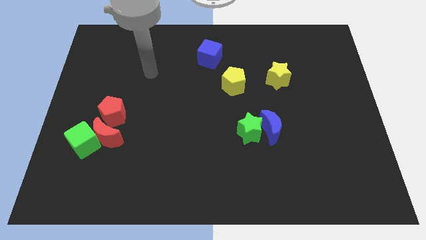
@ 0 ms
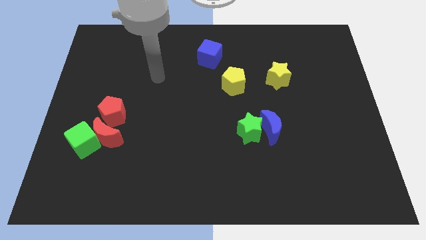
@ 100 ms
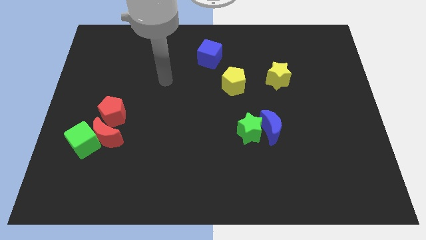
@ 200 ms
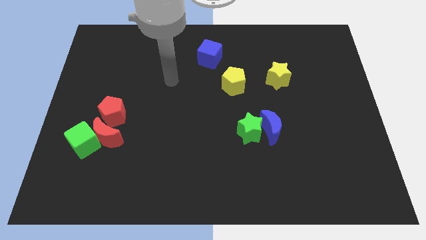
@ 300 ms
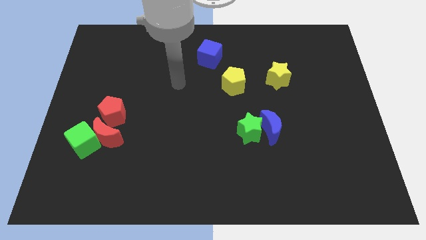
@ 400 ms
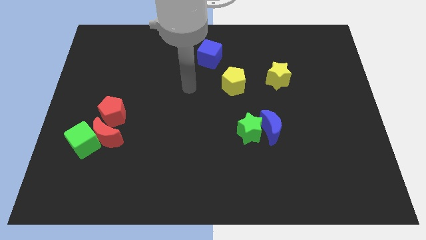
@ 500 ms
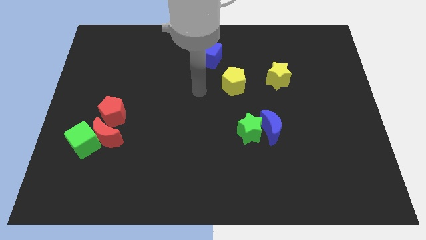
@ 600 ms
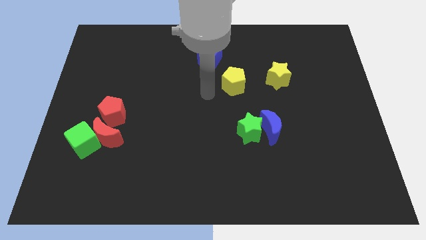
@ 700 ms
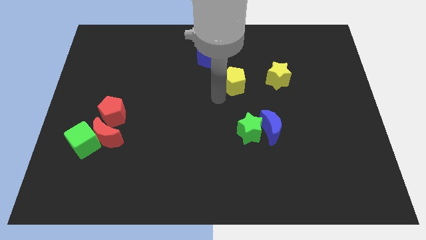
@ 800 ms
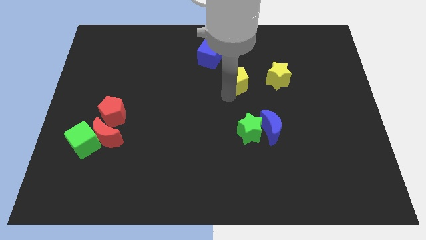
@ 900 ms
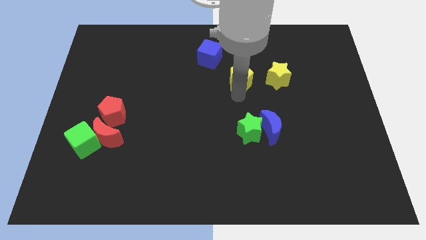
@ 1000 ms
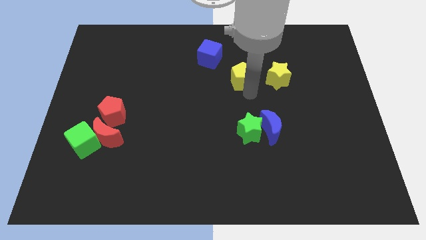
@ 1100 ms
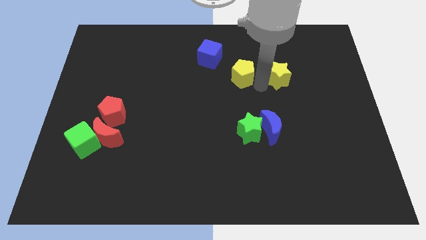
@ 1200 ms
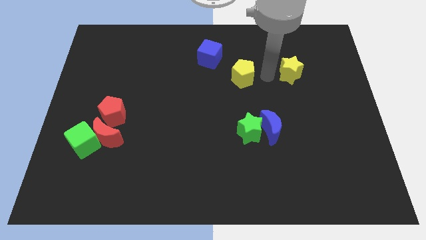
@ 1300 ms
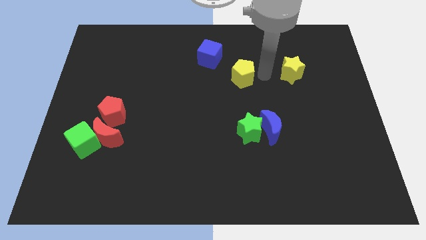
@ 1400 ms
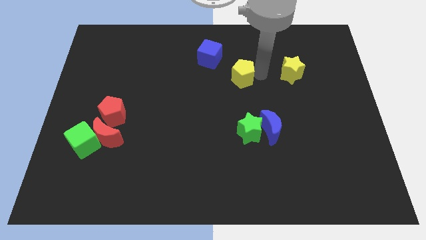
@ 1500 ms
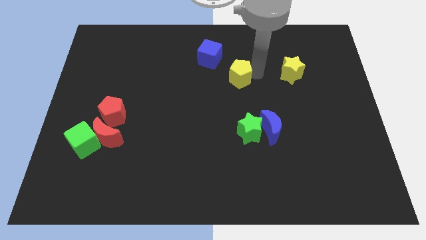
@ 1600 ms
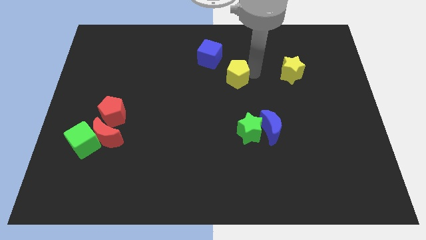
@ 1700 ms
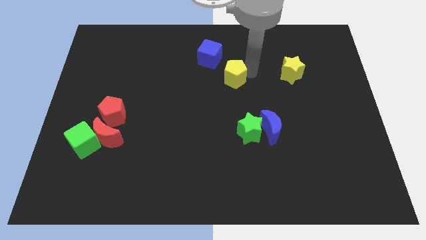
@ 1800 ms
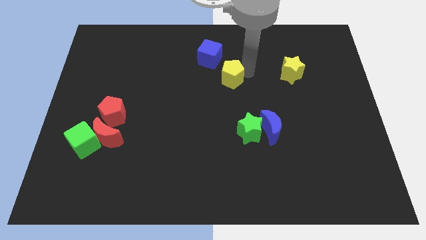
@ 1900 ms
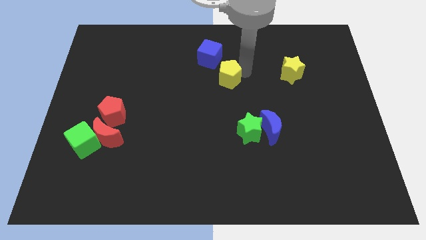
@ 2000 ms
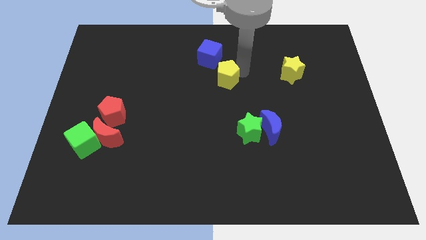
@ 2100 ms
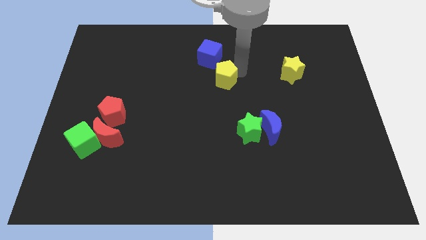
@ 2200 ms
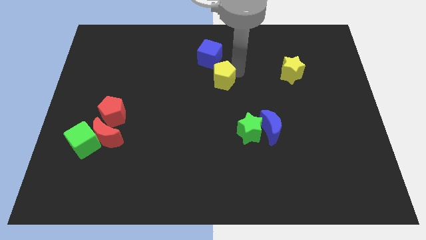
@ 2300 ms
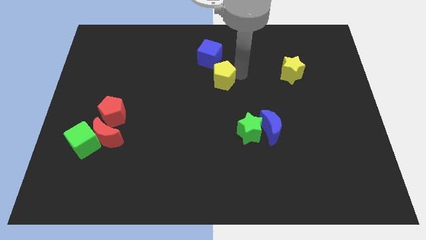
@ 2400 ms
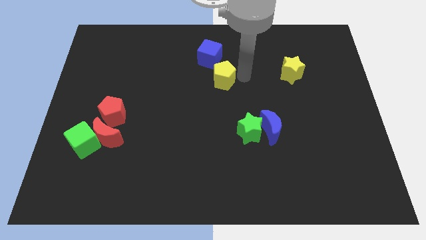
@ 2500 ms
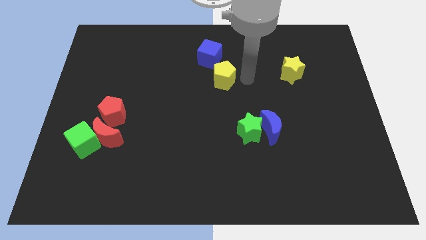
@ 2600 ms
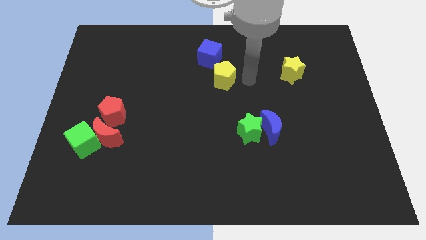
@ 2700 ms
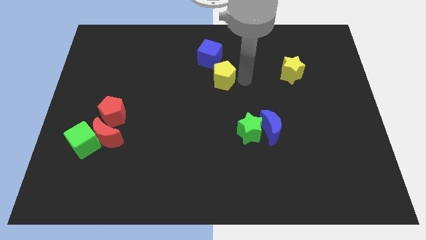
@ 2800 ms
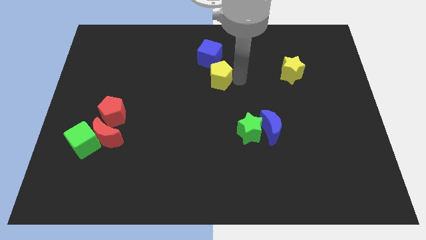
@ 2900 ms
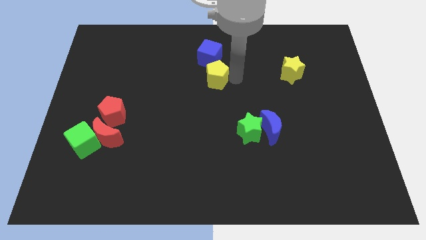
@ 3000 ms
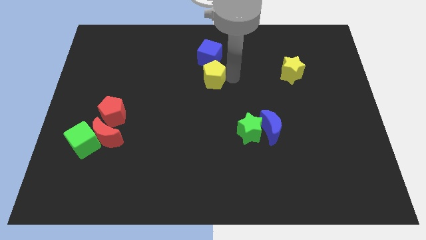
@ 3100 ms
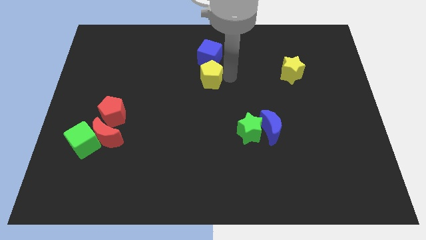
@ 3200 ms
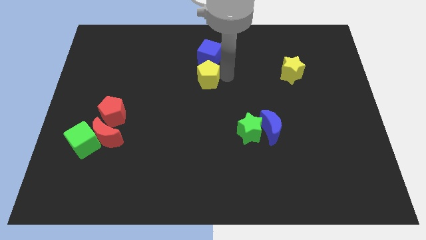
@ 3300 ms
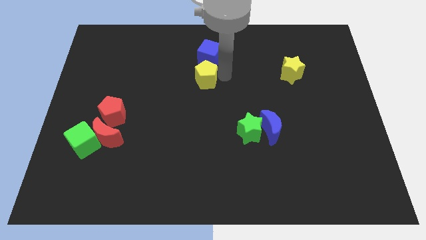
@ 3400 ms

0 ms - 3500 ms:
push the yellow pentagon to the left a bit

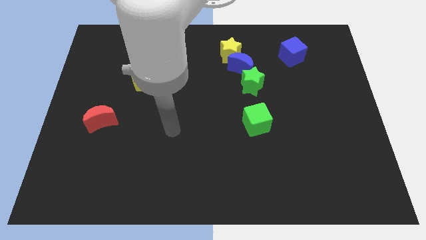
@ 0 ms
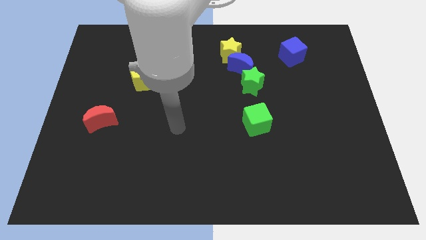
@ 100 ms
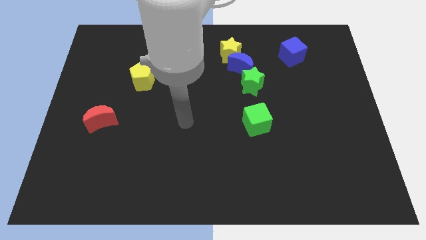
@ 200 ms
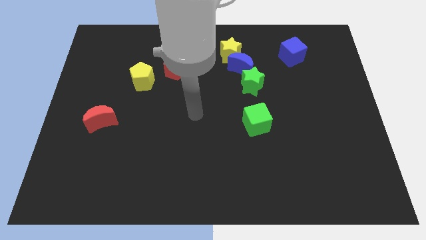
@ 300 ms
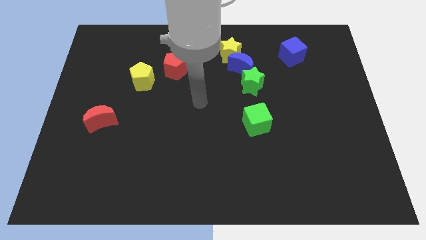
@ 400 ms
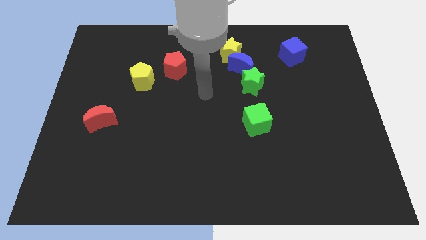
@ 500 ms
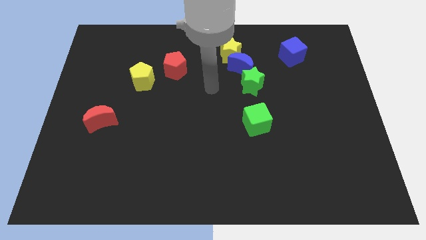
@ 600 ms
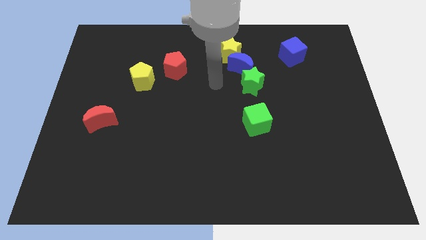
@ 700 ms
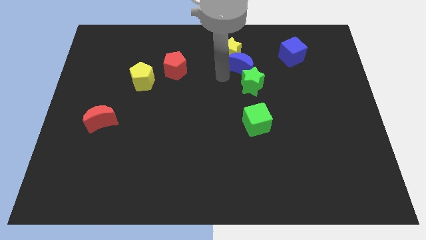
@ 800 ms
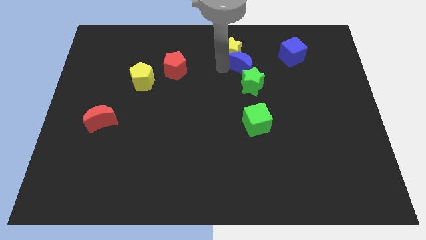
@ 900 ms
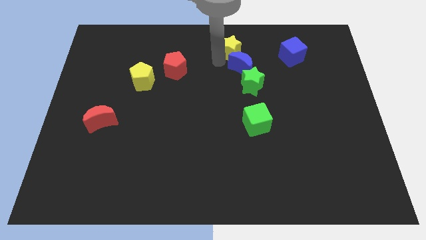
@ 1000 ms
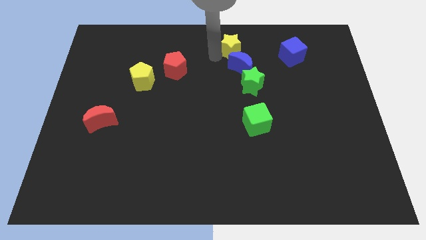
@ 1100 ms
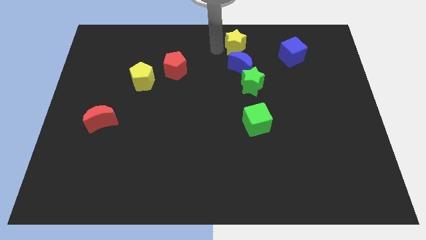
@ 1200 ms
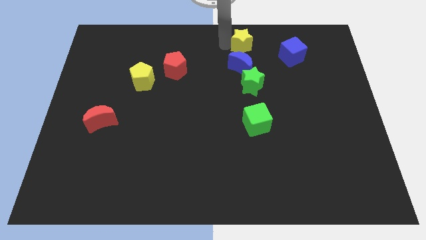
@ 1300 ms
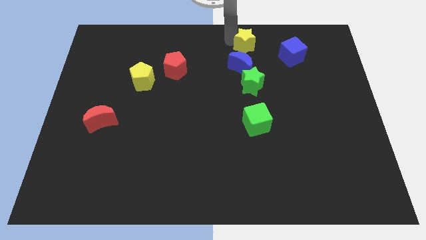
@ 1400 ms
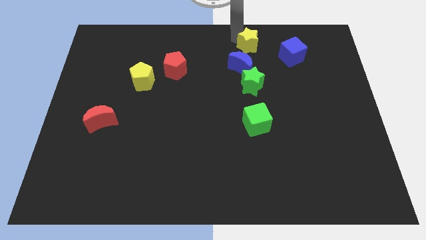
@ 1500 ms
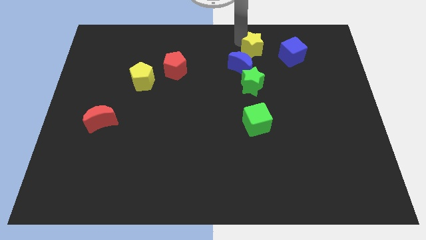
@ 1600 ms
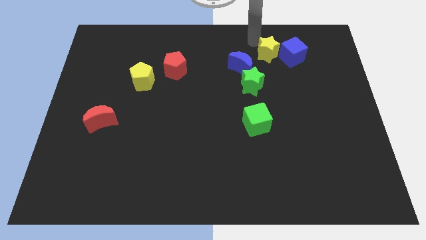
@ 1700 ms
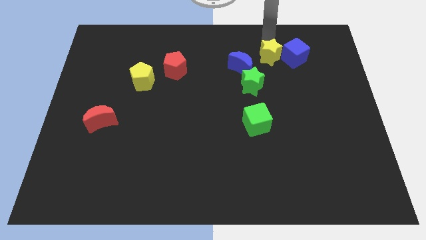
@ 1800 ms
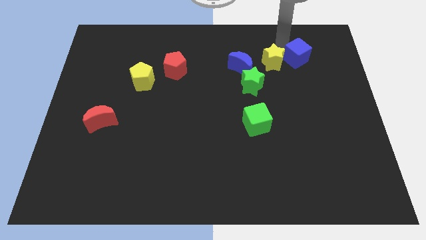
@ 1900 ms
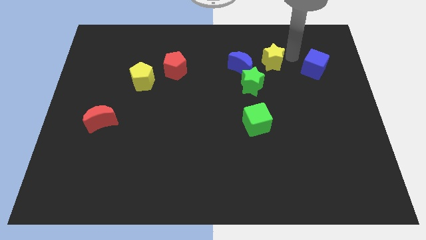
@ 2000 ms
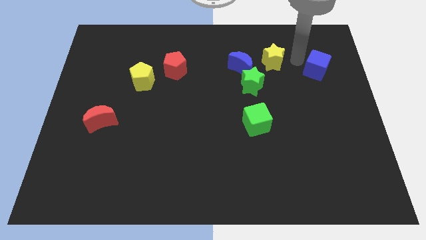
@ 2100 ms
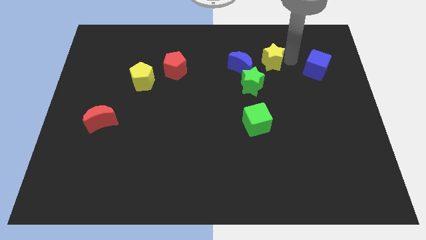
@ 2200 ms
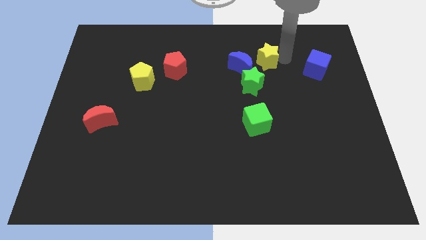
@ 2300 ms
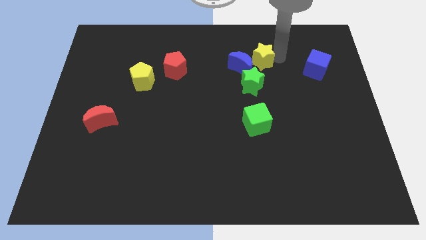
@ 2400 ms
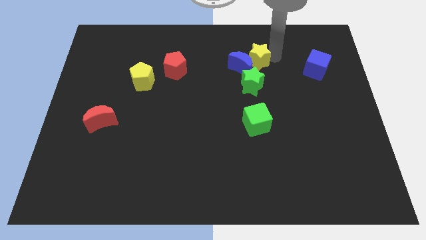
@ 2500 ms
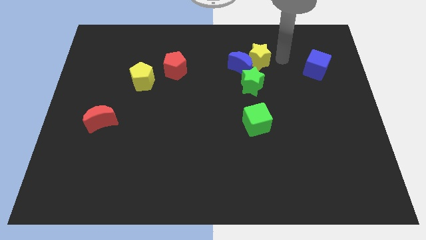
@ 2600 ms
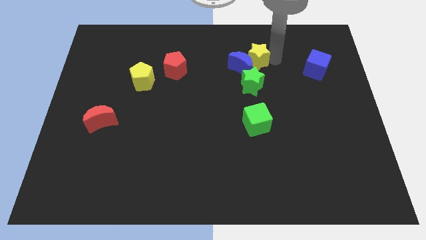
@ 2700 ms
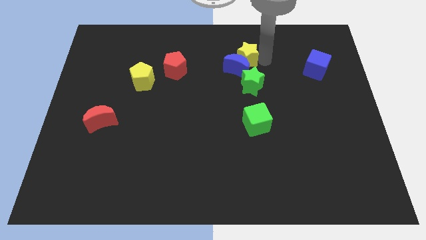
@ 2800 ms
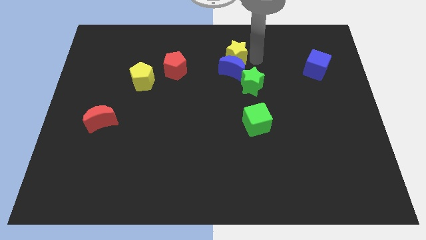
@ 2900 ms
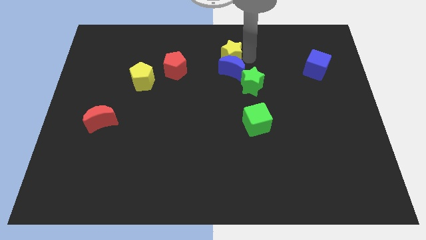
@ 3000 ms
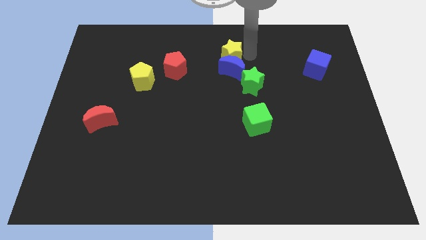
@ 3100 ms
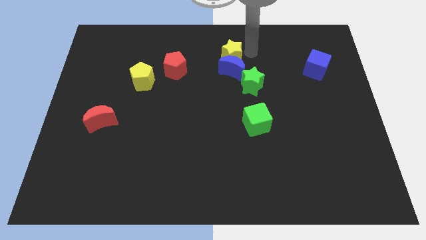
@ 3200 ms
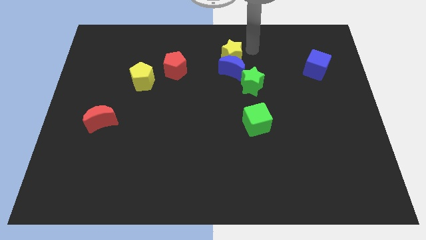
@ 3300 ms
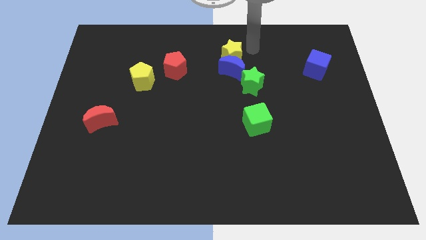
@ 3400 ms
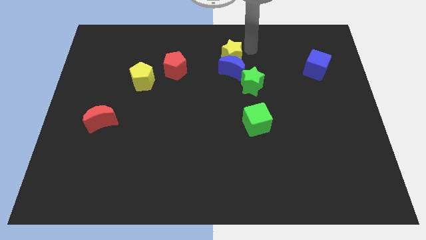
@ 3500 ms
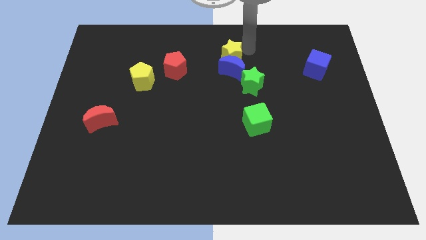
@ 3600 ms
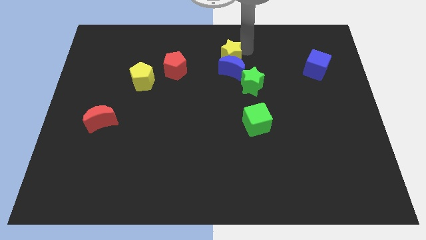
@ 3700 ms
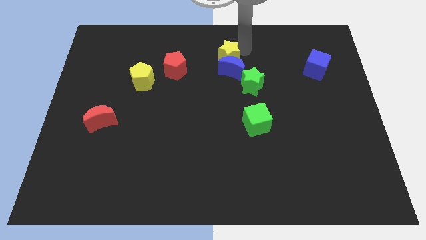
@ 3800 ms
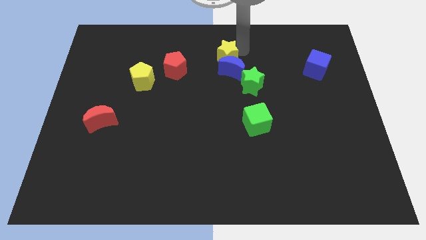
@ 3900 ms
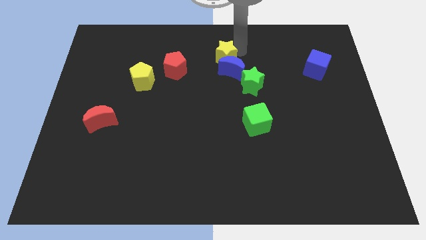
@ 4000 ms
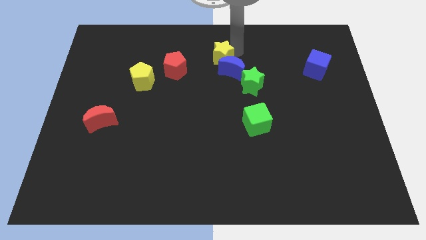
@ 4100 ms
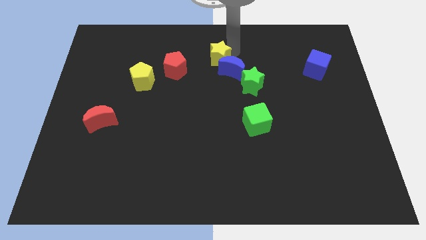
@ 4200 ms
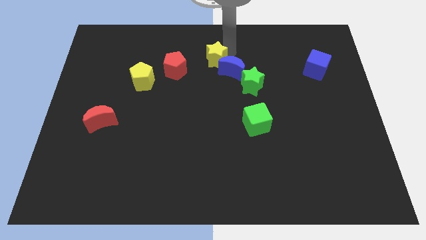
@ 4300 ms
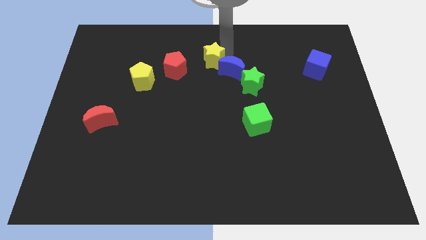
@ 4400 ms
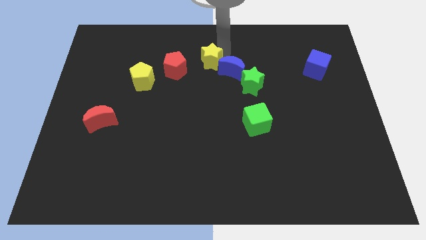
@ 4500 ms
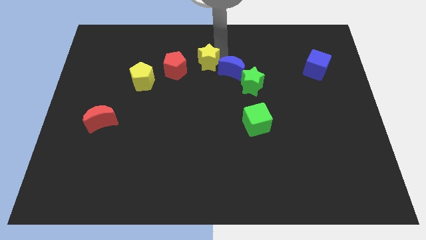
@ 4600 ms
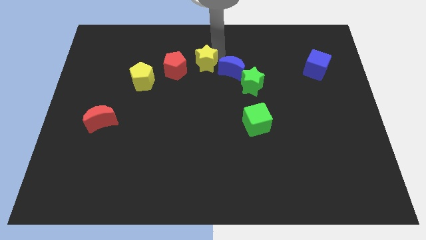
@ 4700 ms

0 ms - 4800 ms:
slightly move the yellow star down and to the left
